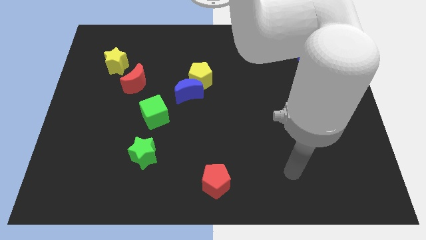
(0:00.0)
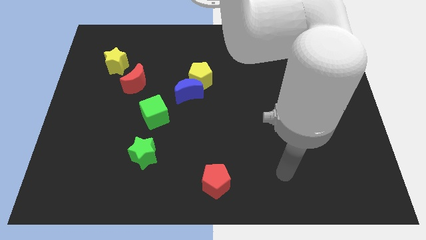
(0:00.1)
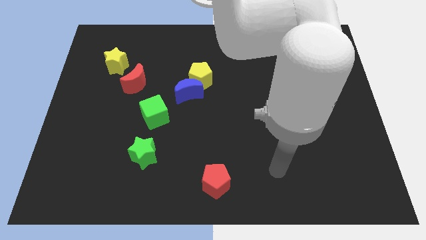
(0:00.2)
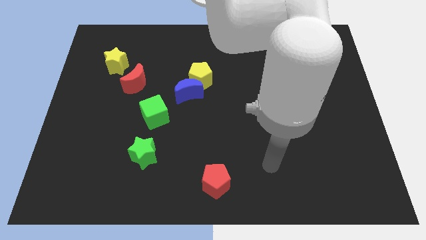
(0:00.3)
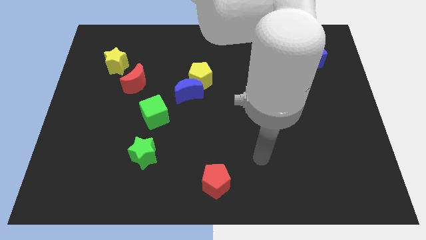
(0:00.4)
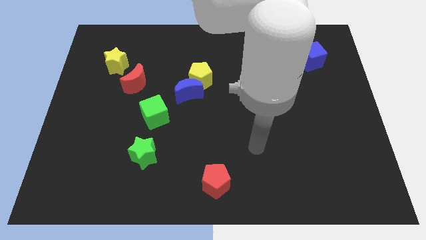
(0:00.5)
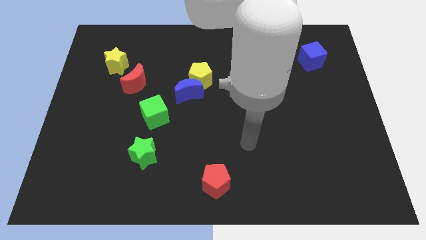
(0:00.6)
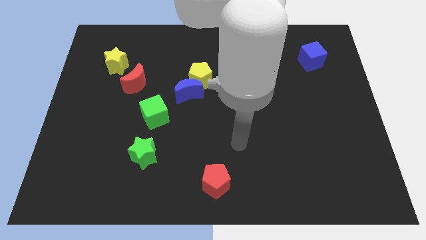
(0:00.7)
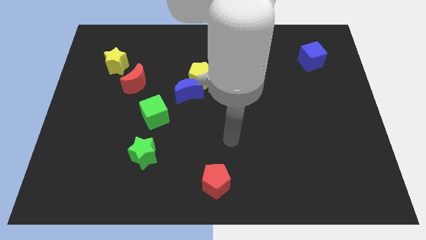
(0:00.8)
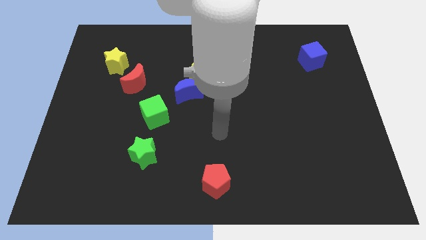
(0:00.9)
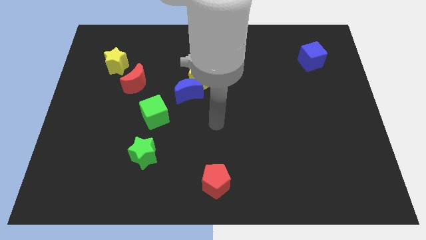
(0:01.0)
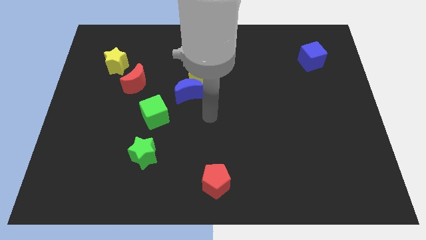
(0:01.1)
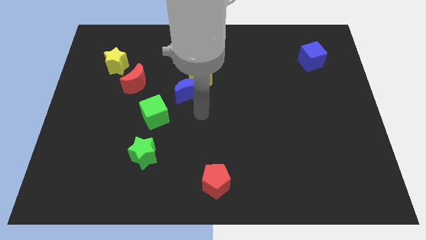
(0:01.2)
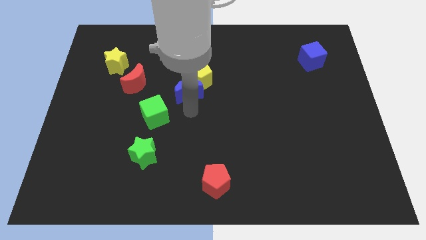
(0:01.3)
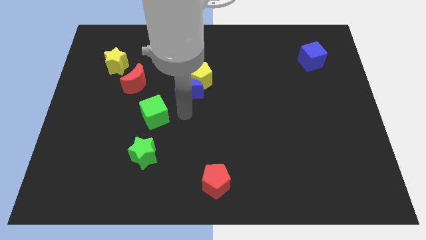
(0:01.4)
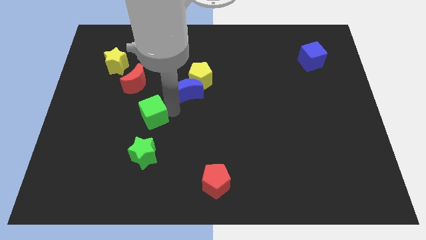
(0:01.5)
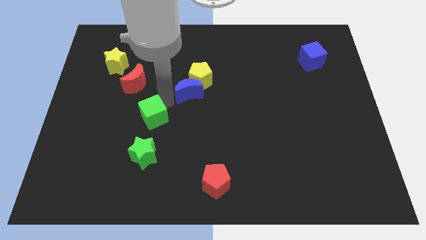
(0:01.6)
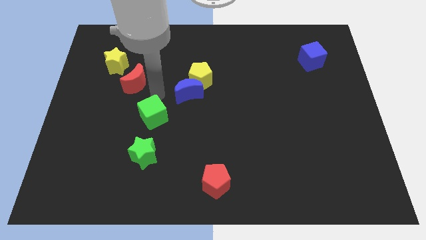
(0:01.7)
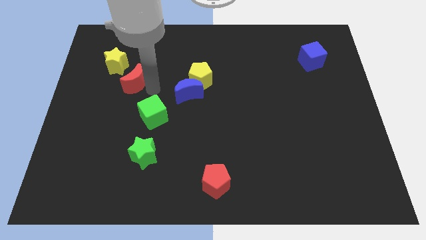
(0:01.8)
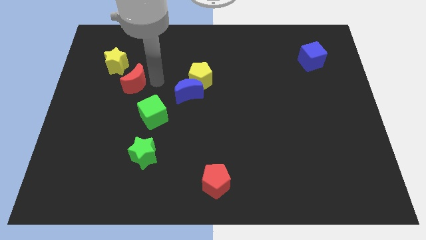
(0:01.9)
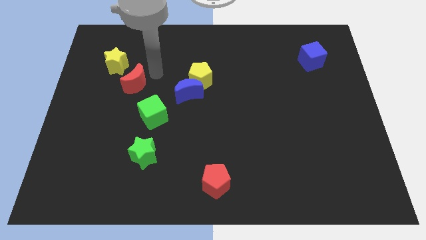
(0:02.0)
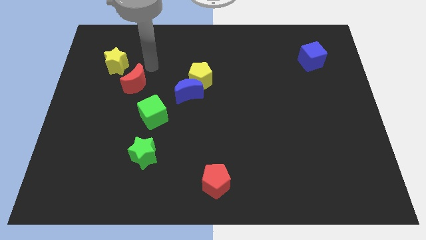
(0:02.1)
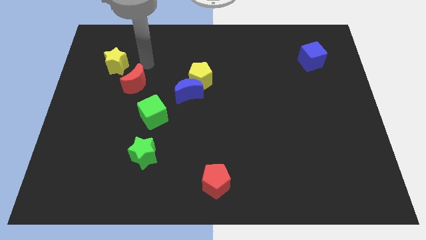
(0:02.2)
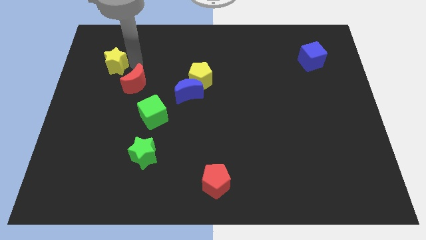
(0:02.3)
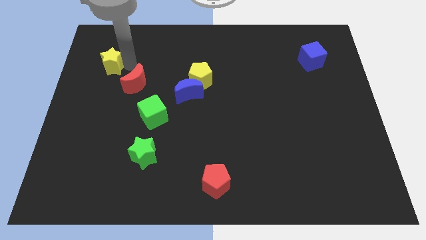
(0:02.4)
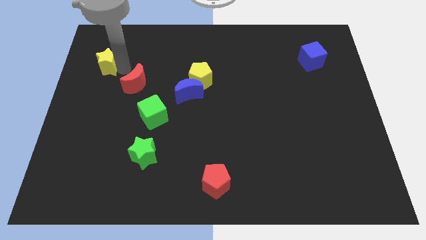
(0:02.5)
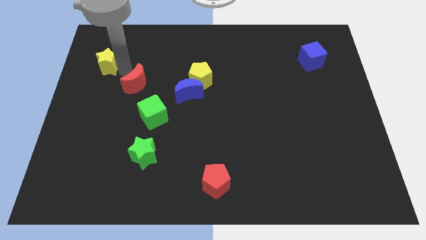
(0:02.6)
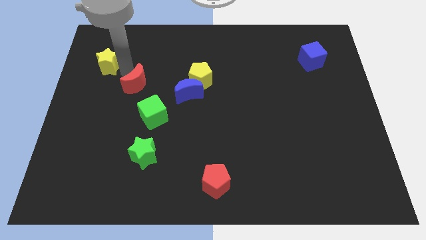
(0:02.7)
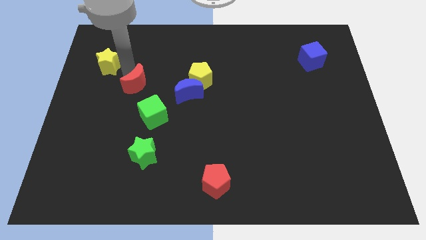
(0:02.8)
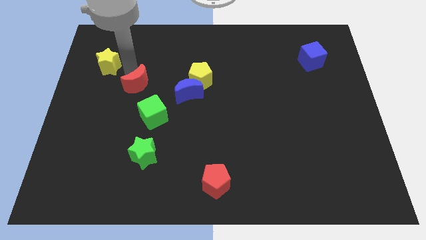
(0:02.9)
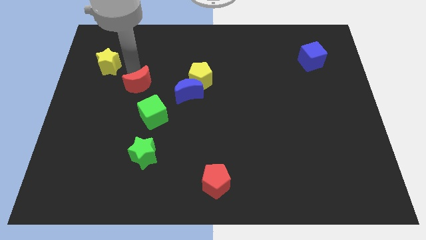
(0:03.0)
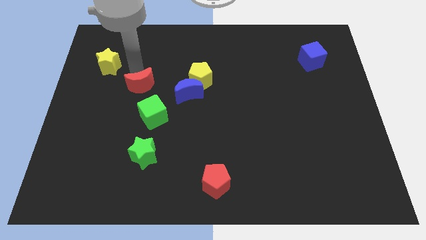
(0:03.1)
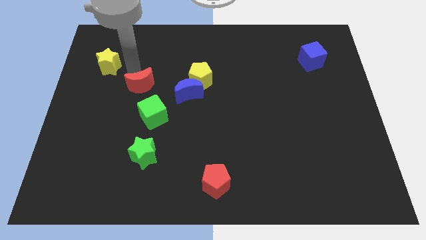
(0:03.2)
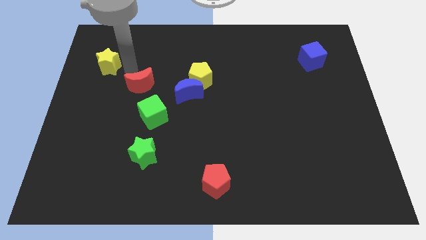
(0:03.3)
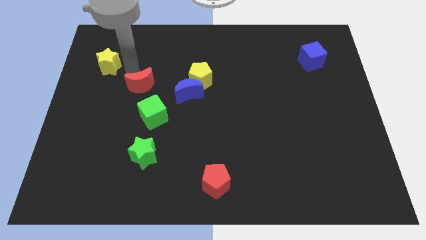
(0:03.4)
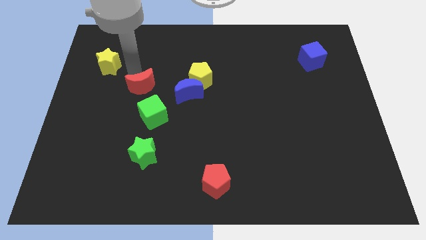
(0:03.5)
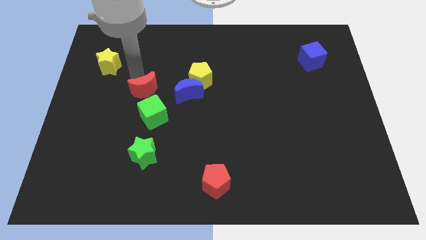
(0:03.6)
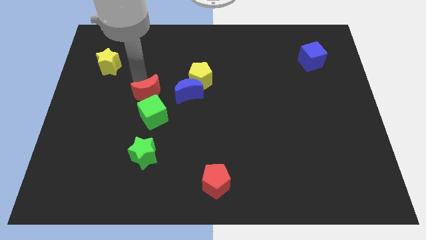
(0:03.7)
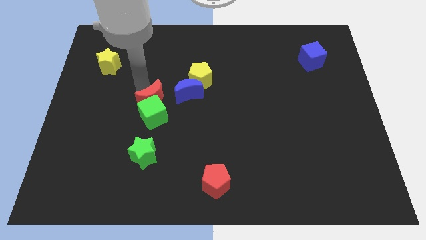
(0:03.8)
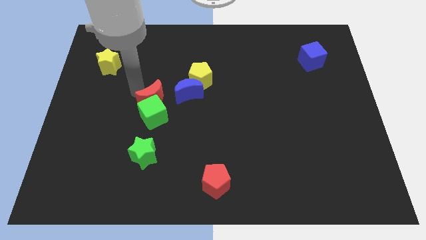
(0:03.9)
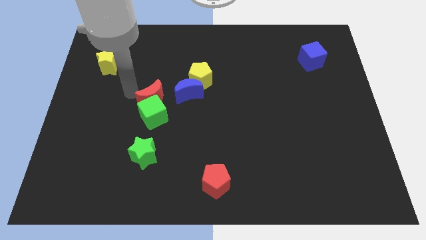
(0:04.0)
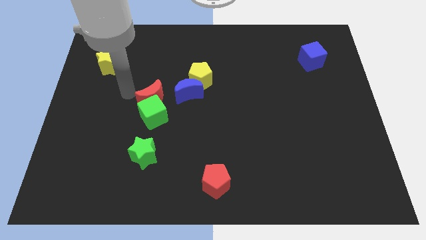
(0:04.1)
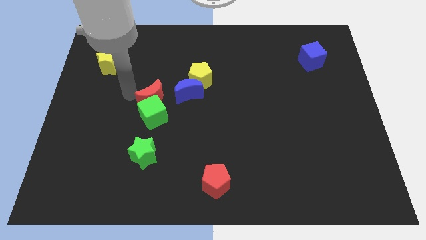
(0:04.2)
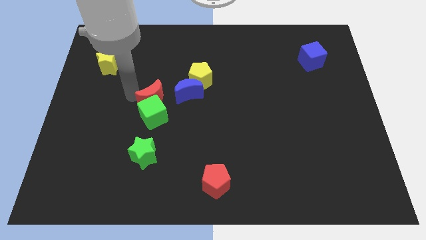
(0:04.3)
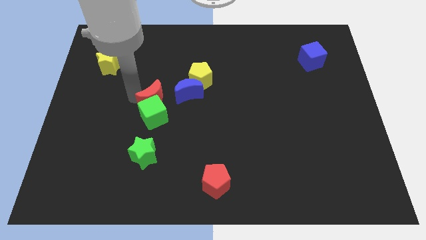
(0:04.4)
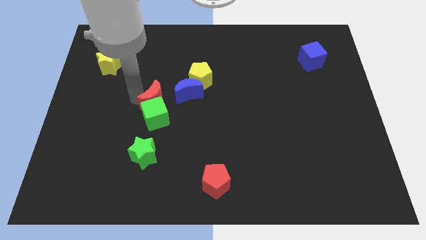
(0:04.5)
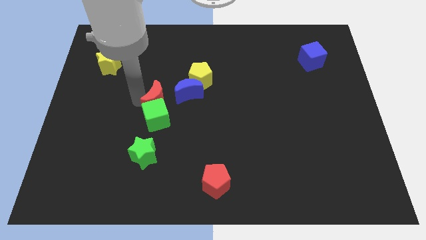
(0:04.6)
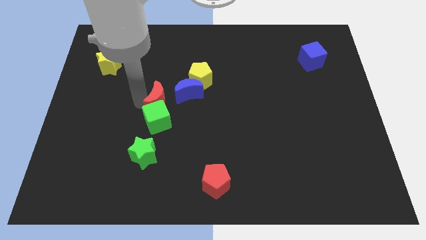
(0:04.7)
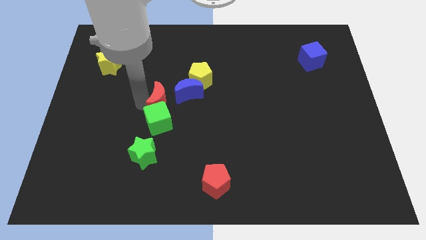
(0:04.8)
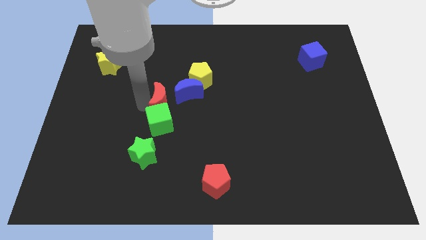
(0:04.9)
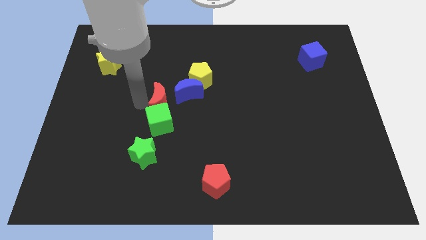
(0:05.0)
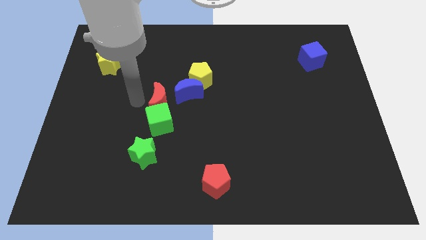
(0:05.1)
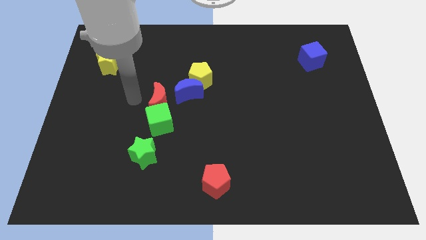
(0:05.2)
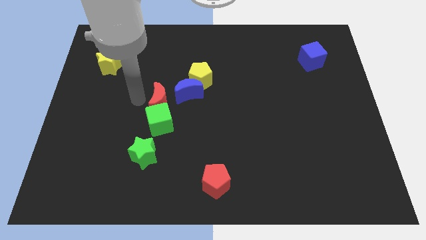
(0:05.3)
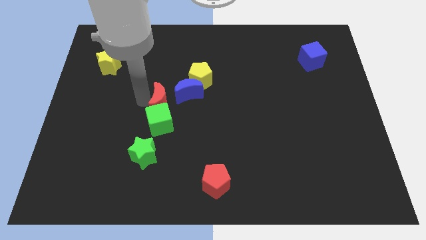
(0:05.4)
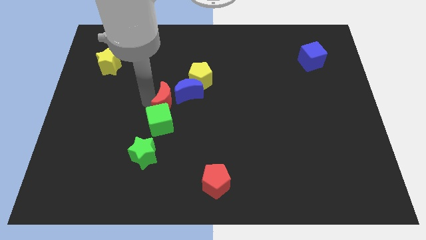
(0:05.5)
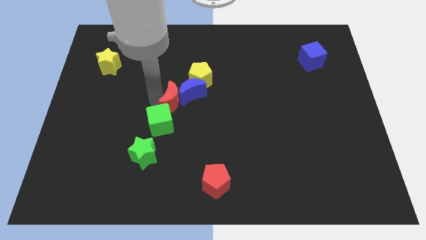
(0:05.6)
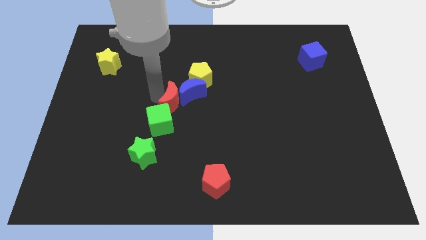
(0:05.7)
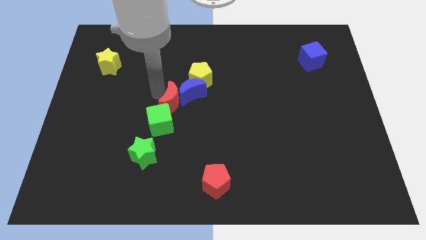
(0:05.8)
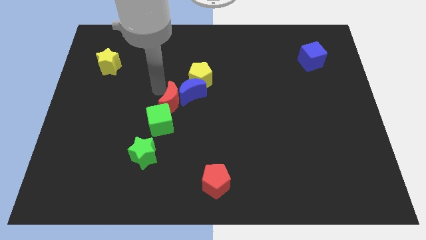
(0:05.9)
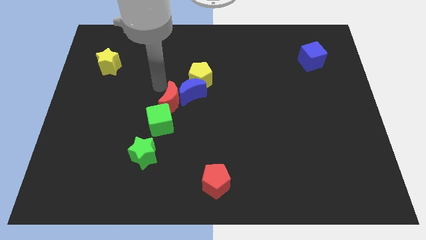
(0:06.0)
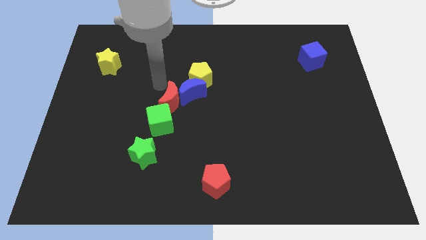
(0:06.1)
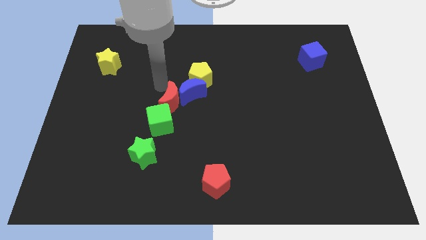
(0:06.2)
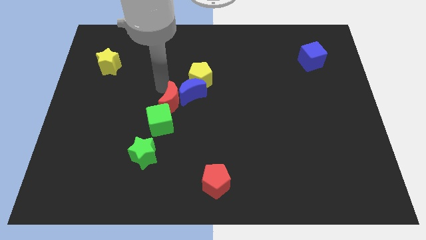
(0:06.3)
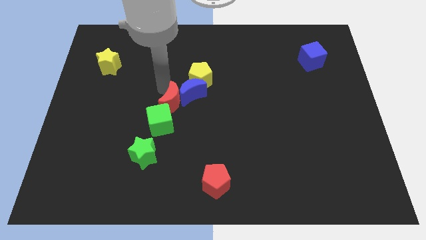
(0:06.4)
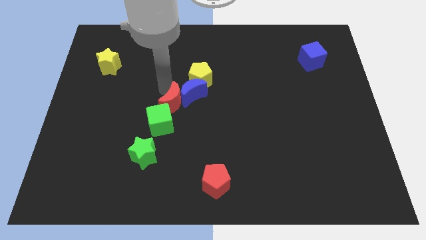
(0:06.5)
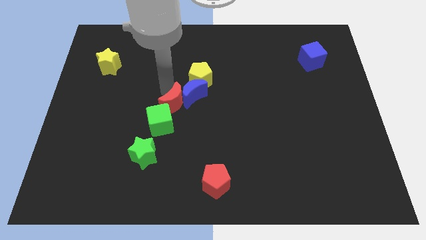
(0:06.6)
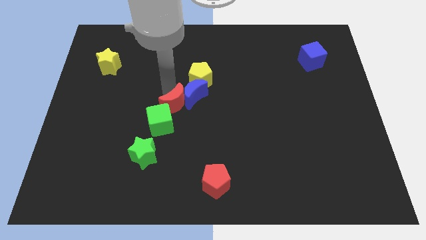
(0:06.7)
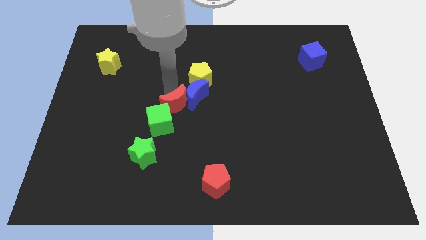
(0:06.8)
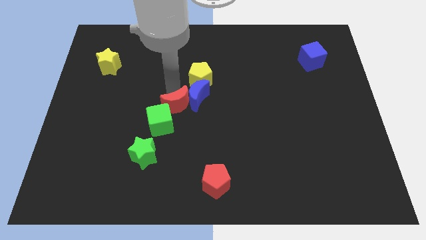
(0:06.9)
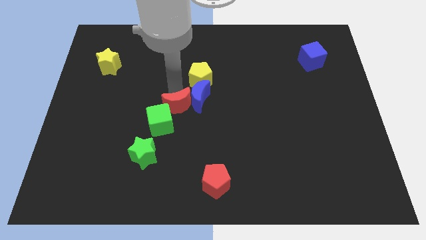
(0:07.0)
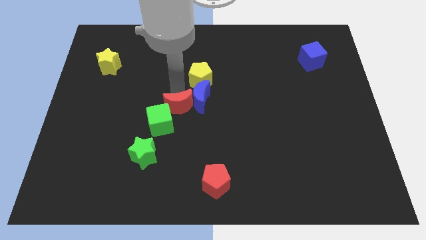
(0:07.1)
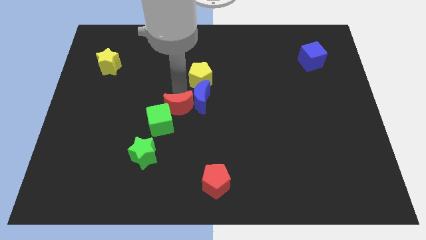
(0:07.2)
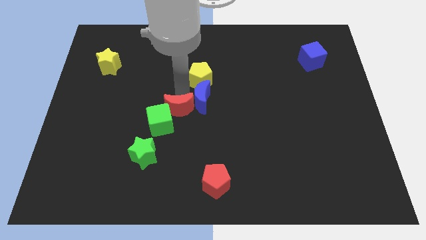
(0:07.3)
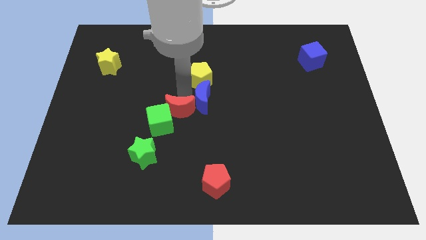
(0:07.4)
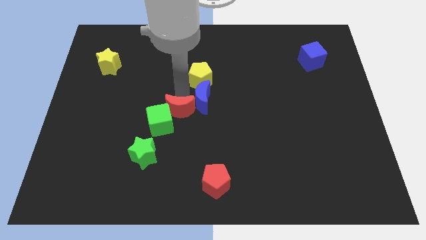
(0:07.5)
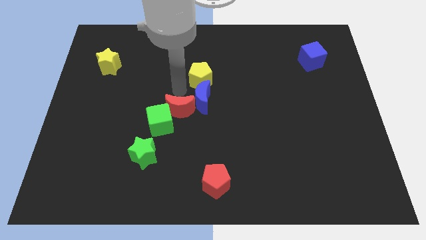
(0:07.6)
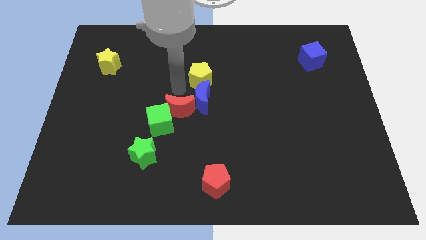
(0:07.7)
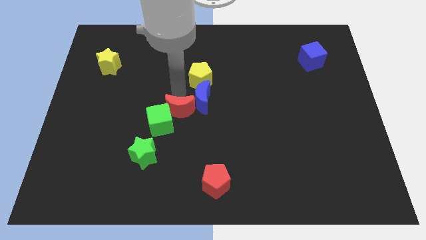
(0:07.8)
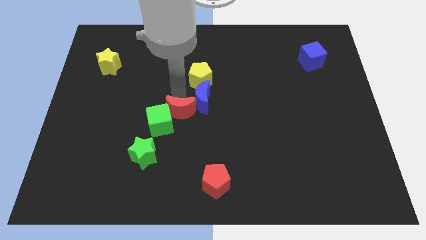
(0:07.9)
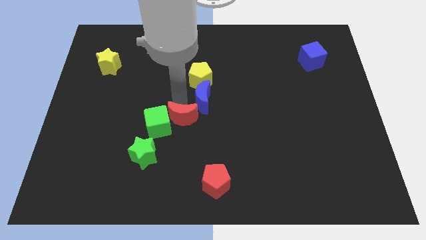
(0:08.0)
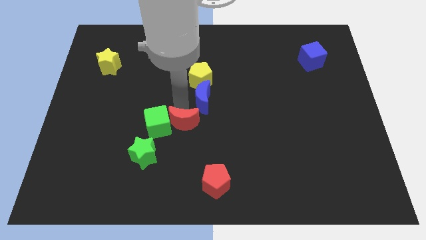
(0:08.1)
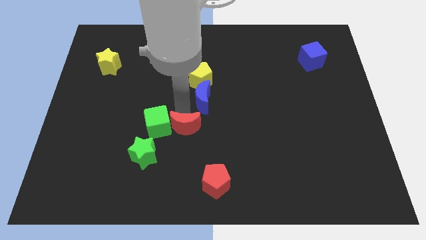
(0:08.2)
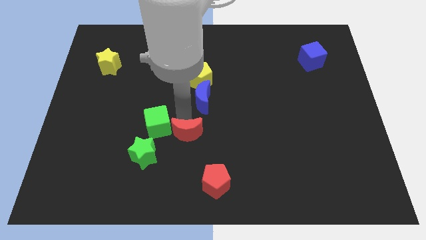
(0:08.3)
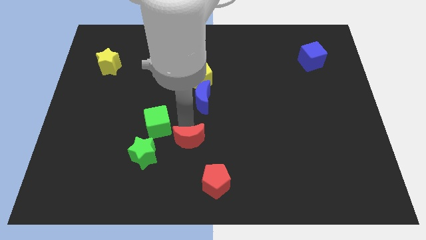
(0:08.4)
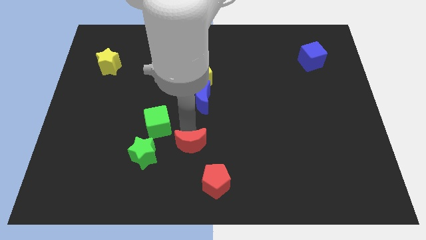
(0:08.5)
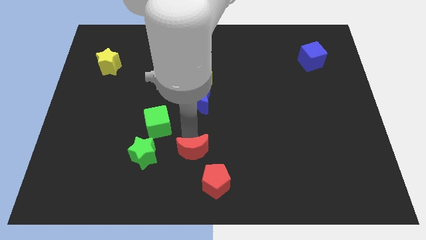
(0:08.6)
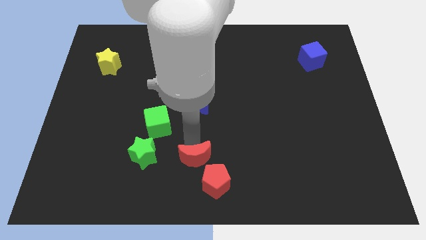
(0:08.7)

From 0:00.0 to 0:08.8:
move the red moon to the bottom
